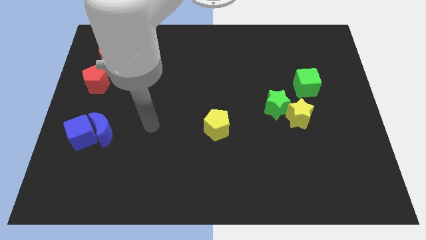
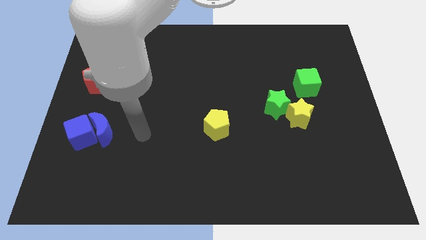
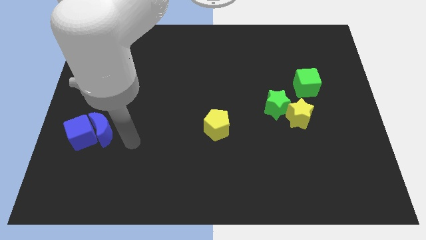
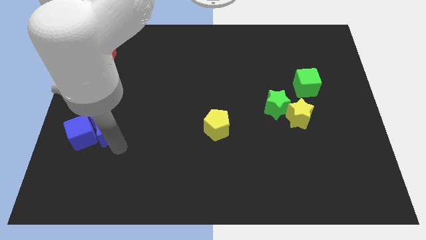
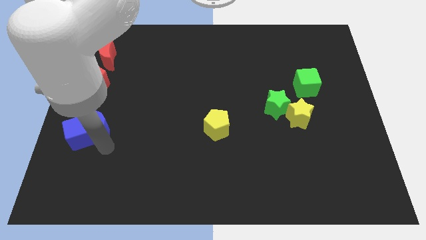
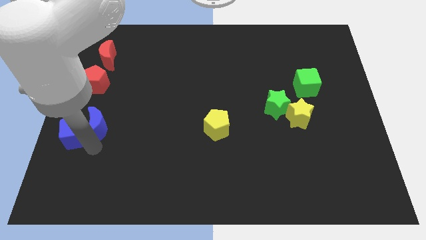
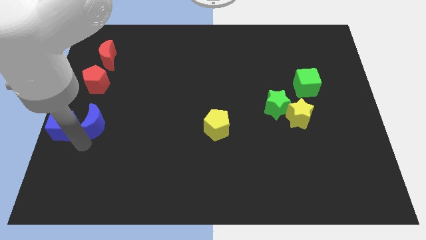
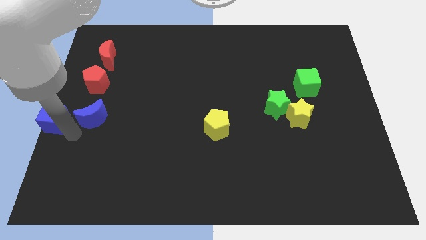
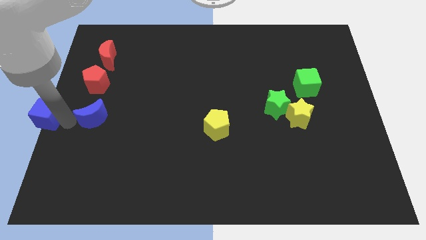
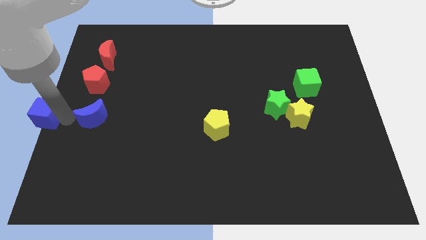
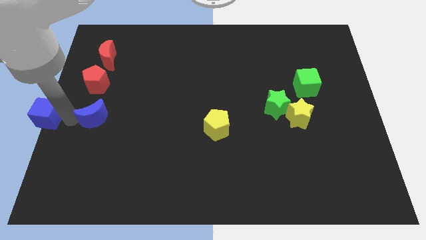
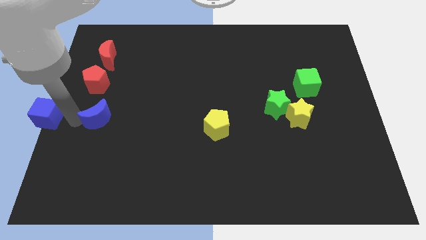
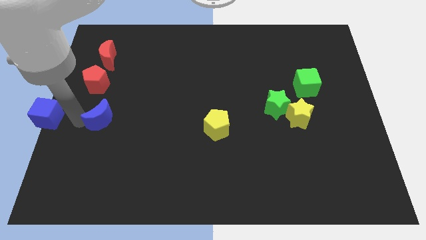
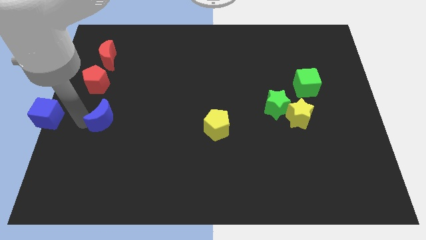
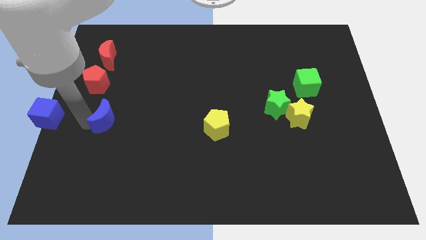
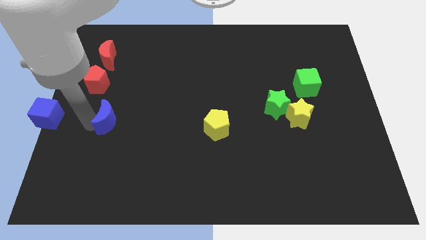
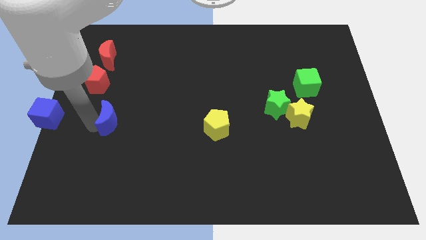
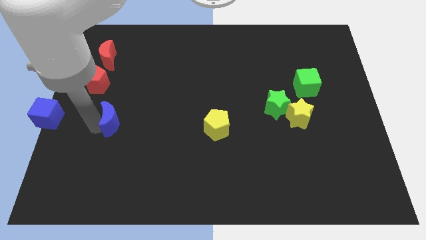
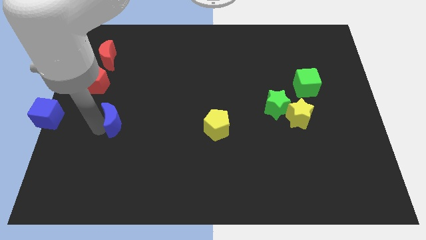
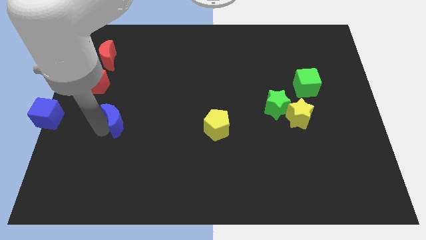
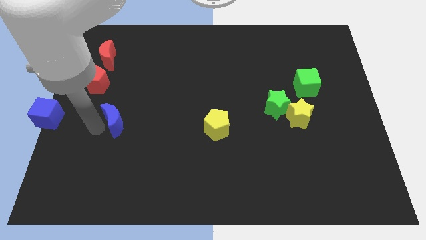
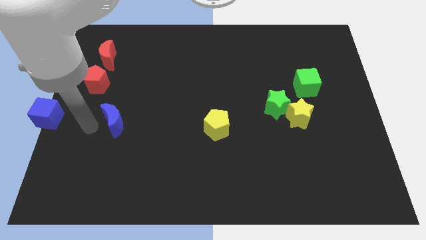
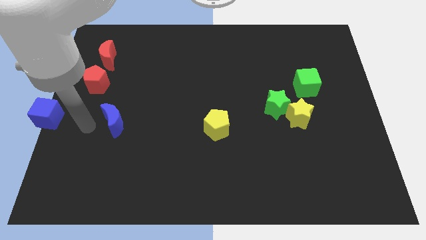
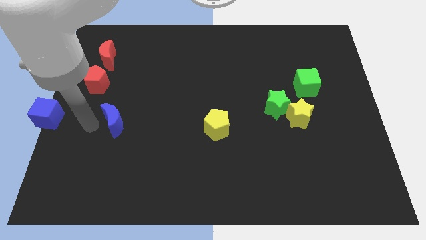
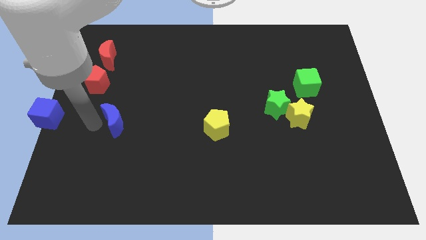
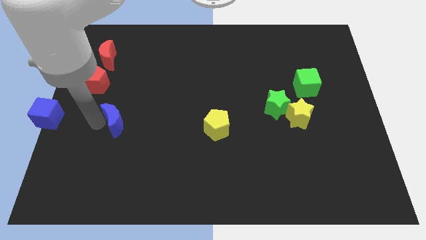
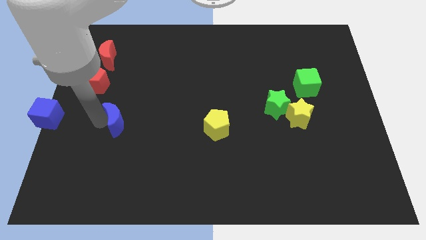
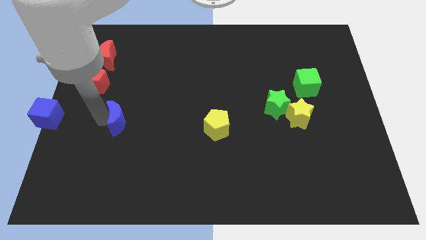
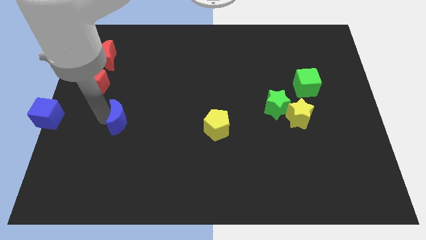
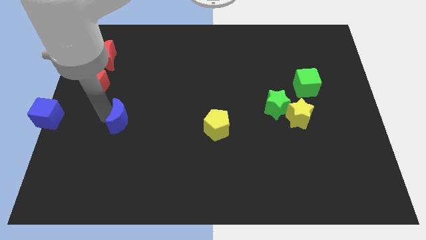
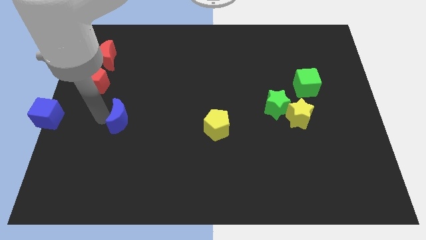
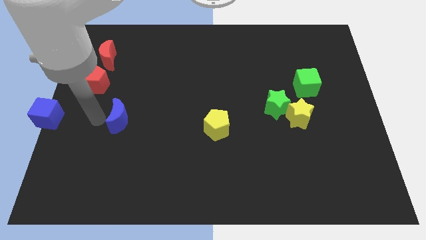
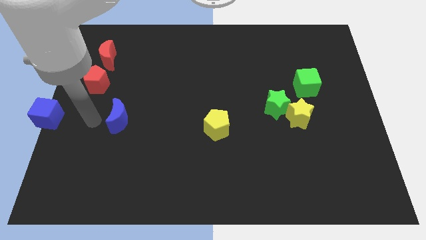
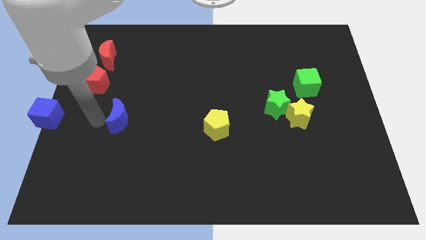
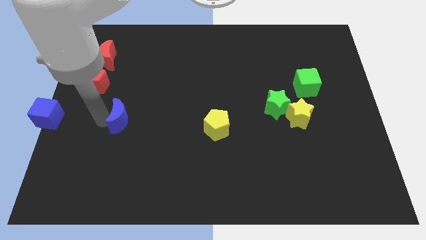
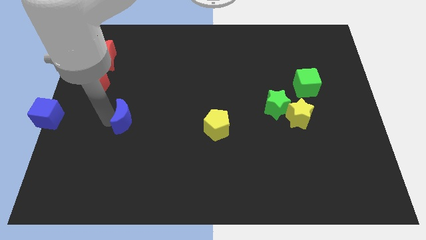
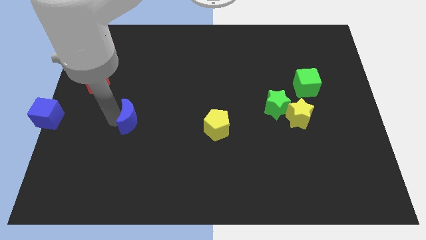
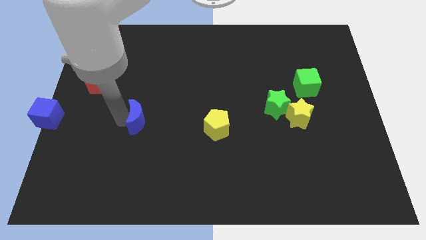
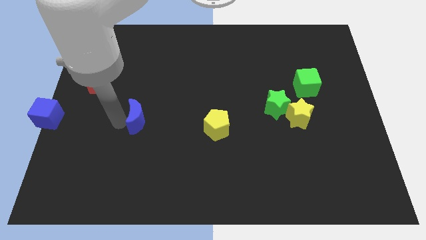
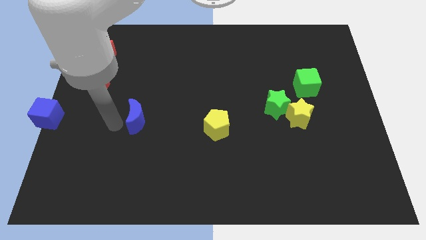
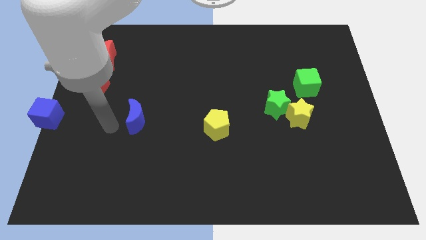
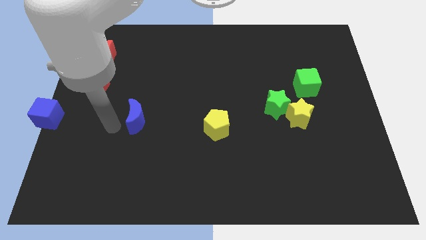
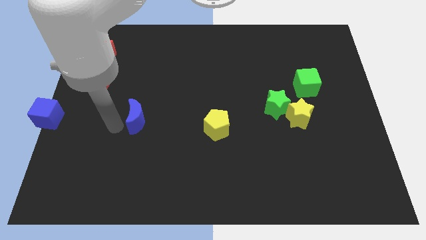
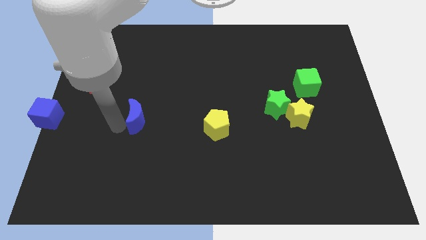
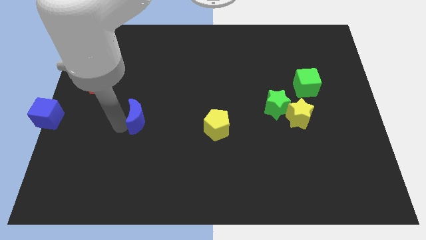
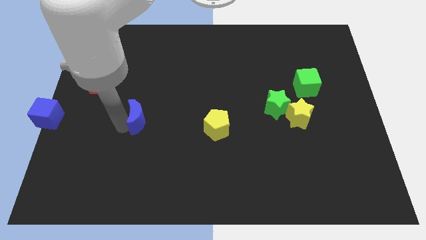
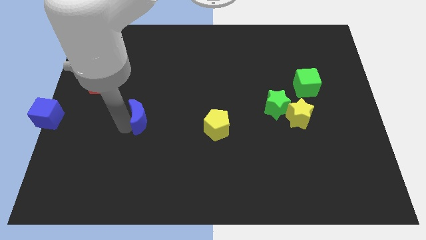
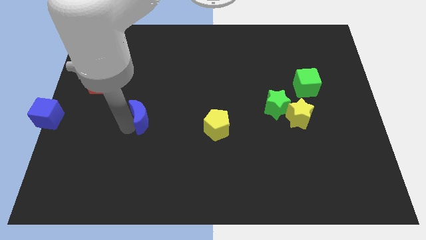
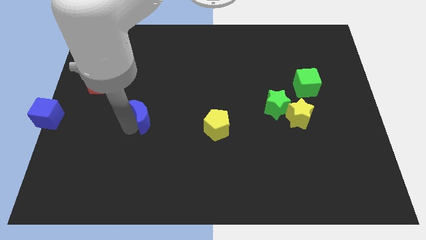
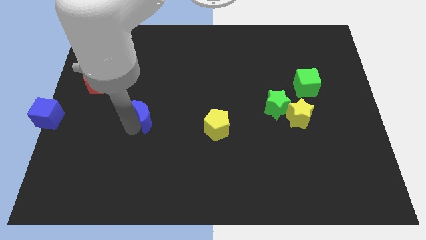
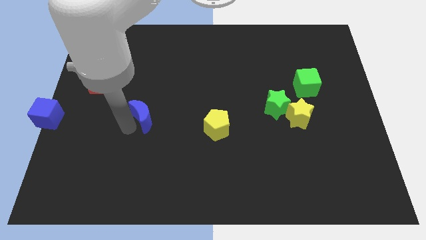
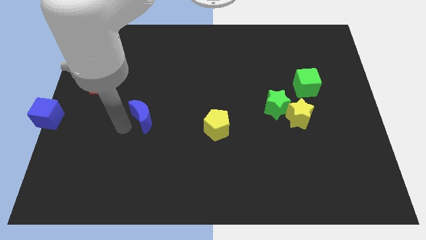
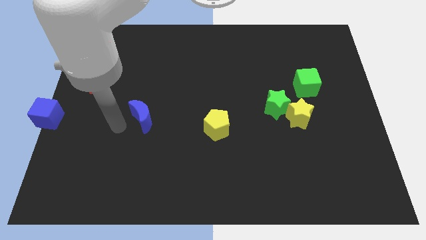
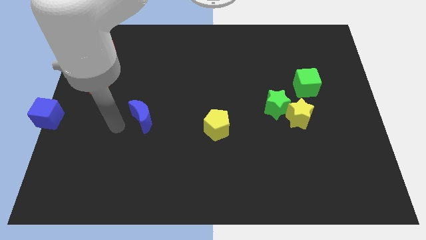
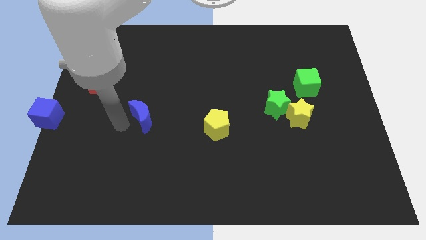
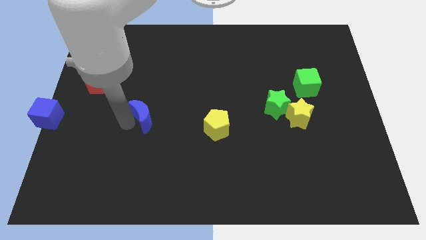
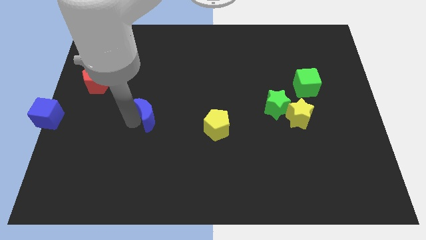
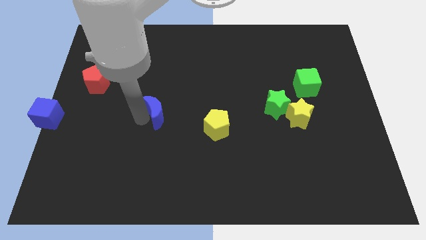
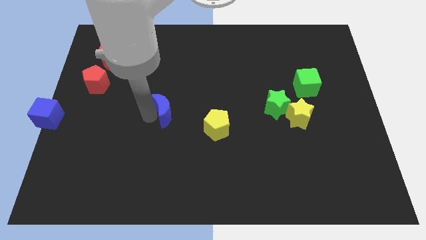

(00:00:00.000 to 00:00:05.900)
put the blue moon to the middle

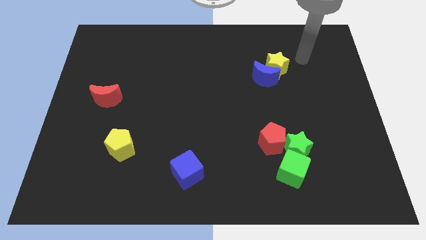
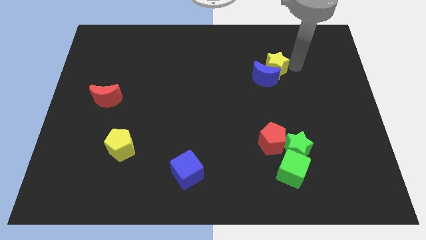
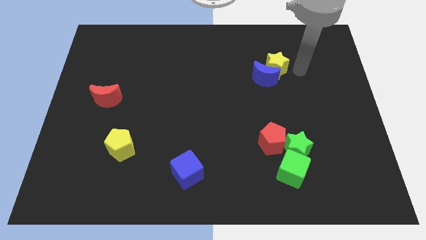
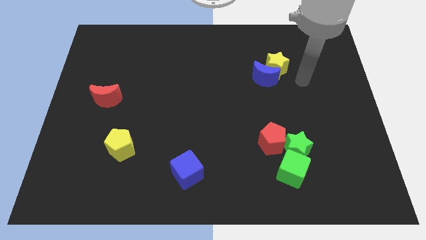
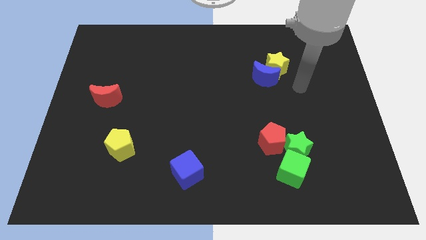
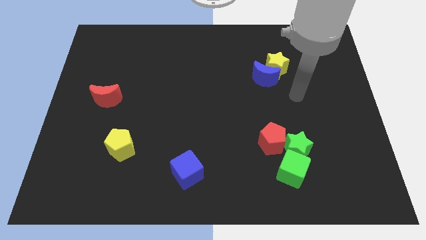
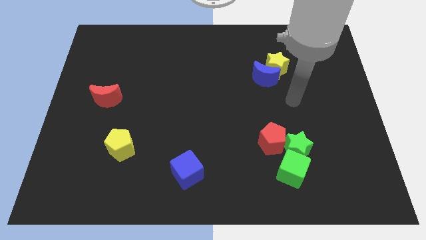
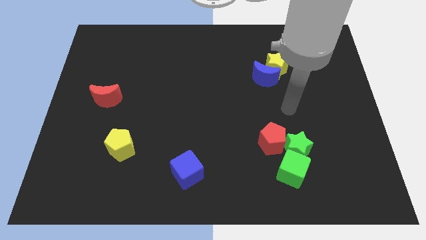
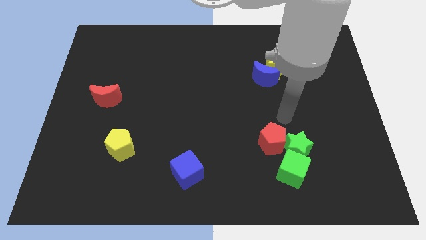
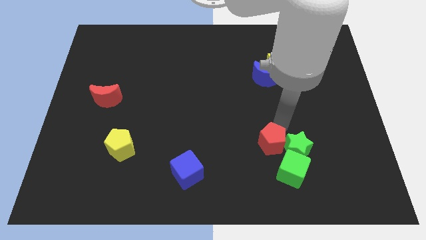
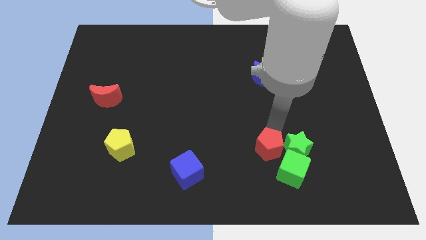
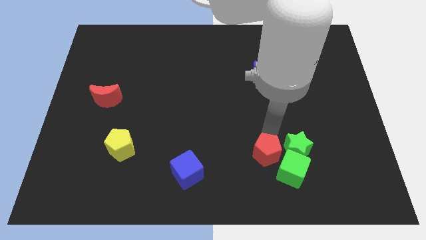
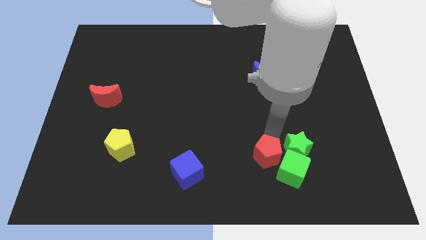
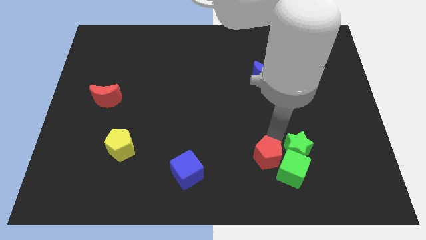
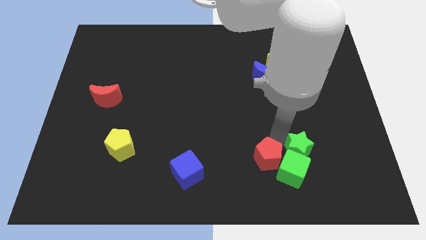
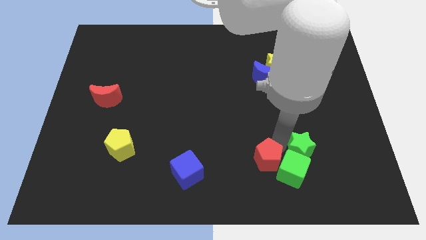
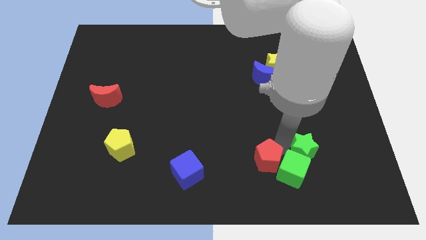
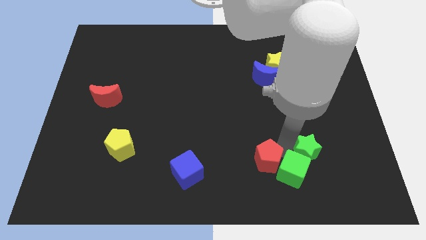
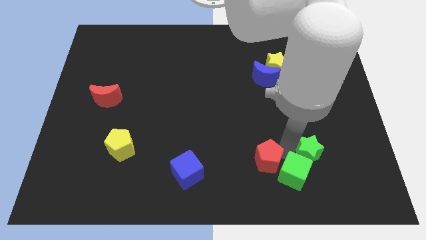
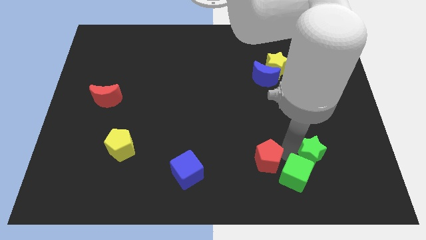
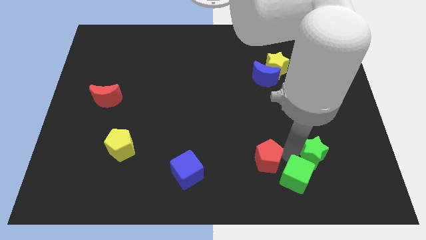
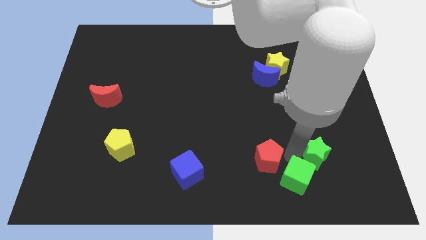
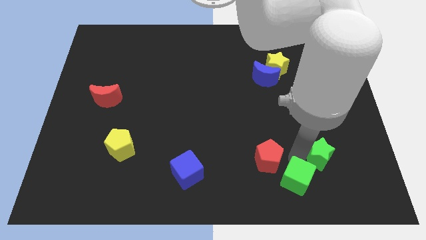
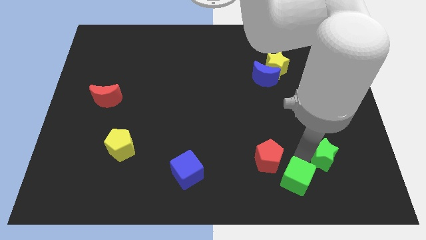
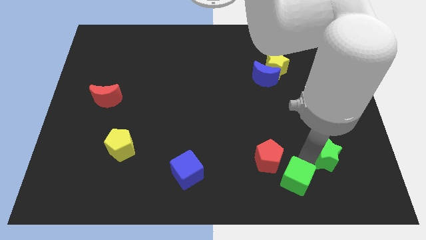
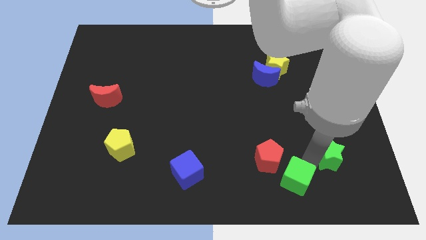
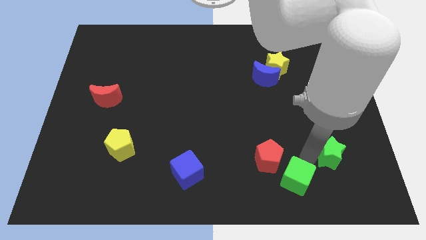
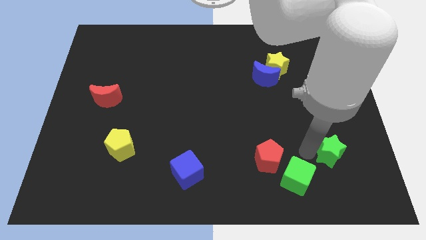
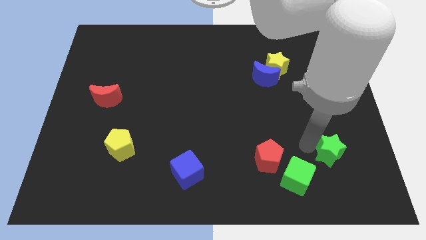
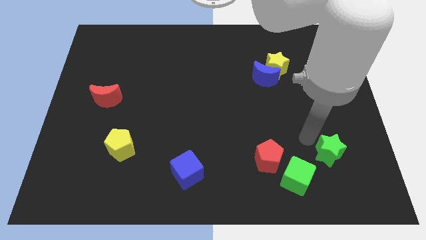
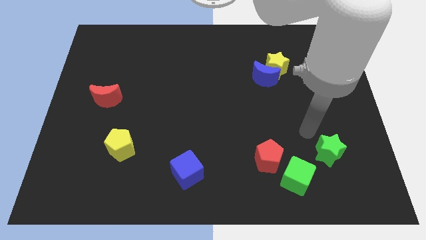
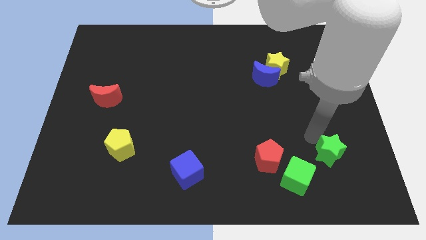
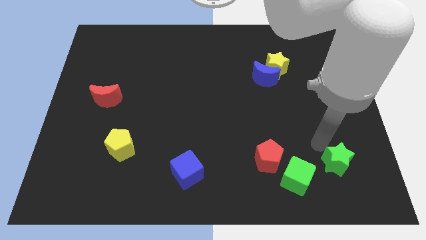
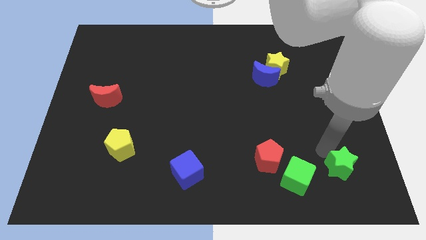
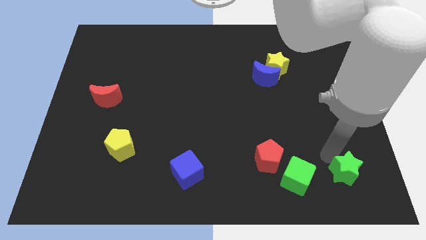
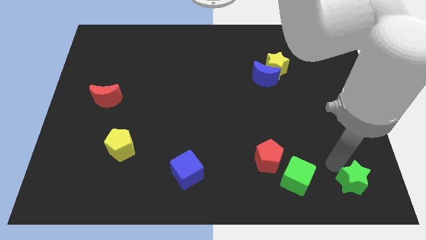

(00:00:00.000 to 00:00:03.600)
slide the green star to the lower right corner
